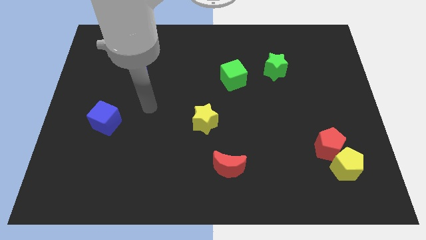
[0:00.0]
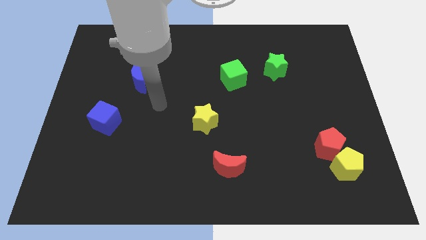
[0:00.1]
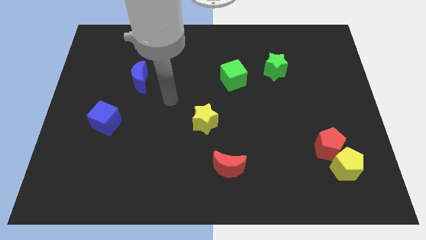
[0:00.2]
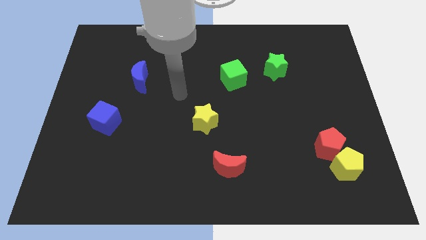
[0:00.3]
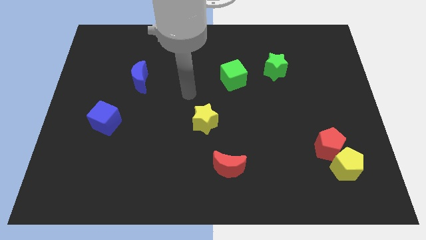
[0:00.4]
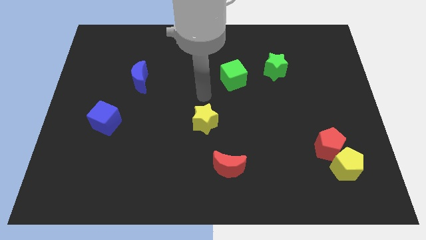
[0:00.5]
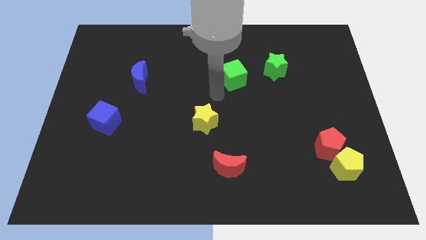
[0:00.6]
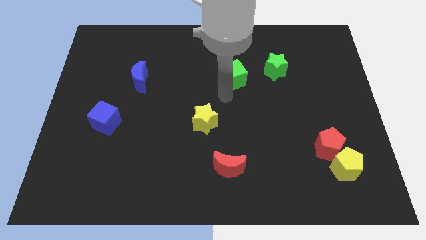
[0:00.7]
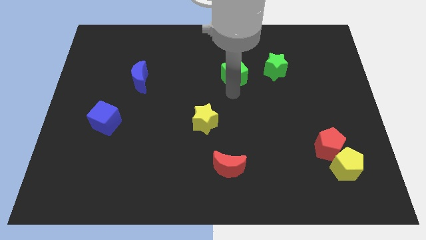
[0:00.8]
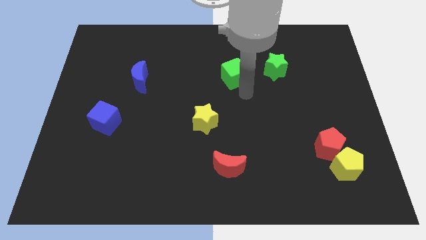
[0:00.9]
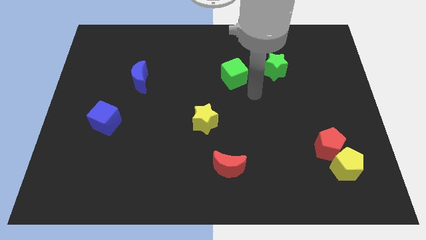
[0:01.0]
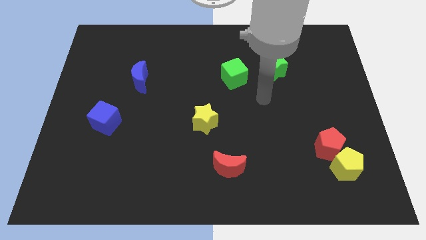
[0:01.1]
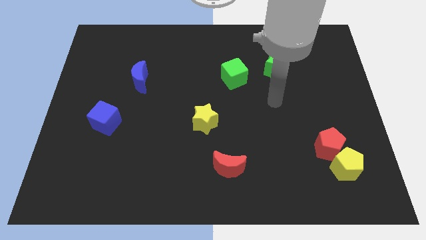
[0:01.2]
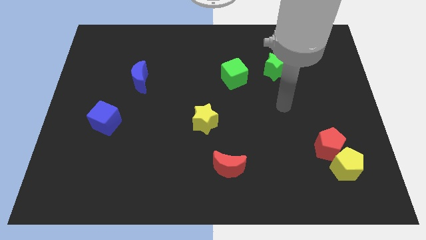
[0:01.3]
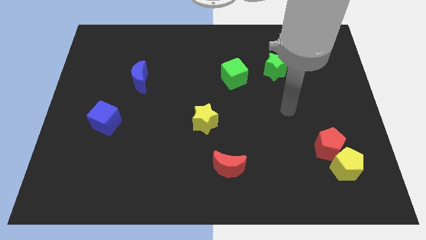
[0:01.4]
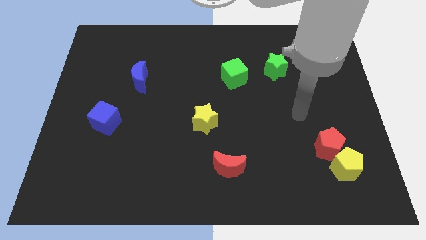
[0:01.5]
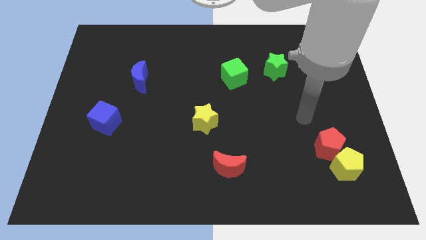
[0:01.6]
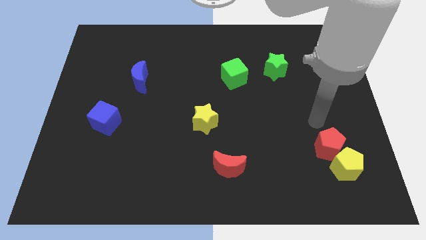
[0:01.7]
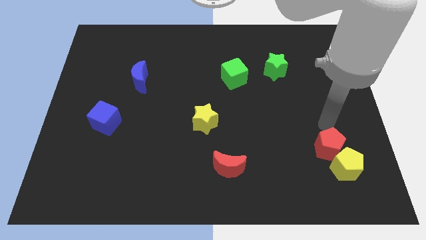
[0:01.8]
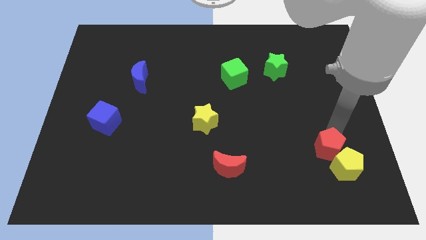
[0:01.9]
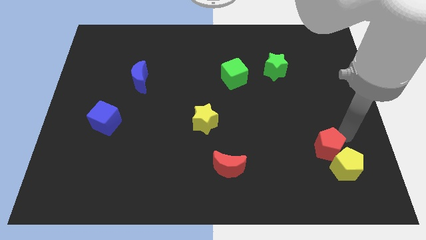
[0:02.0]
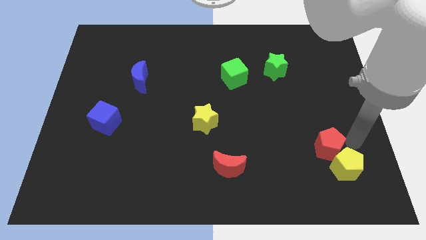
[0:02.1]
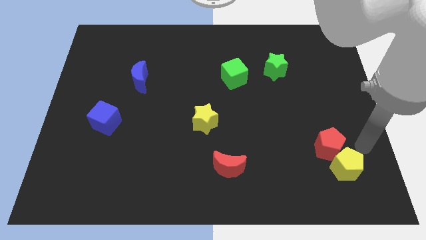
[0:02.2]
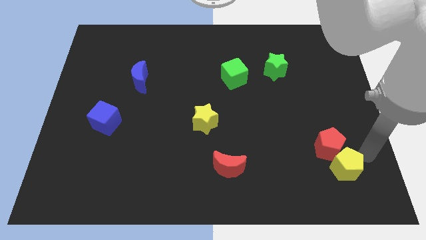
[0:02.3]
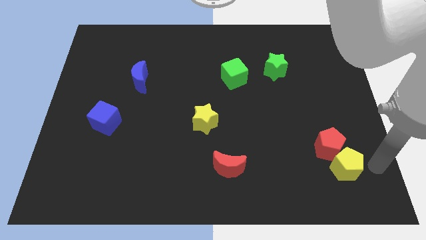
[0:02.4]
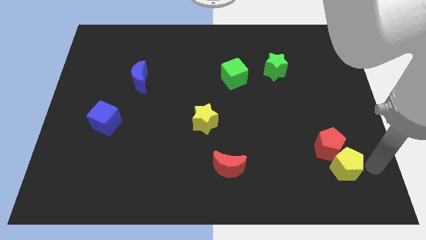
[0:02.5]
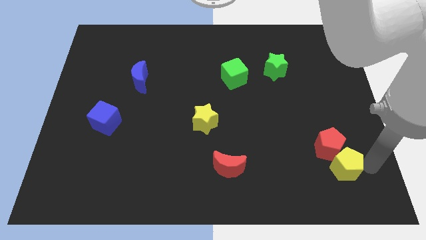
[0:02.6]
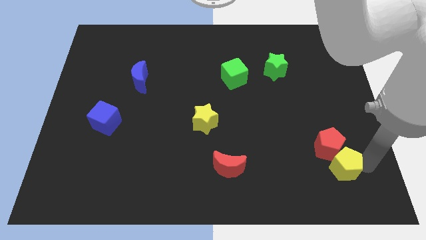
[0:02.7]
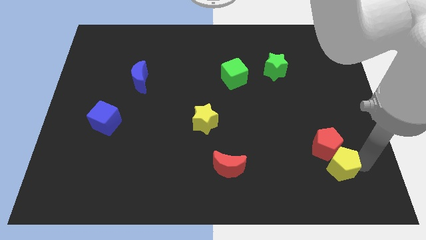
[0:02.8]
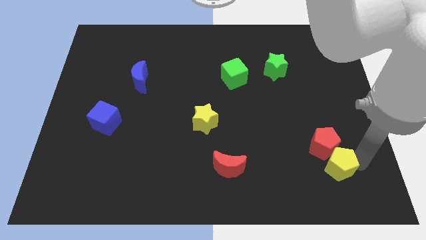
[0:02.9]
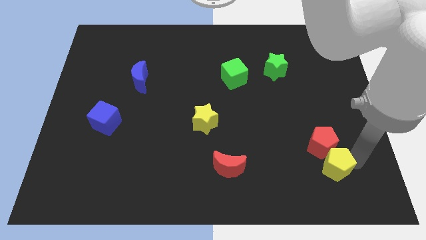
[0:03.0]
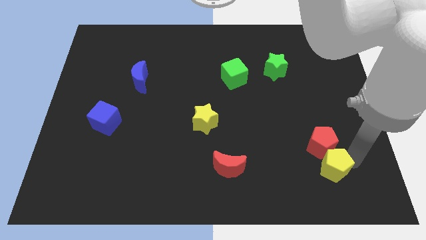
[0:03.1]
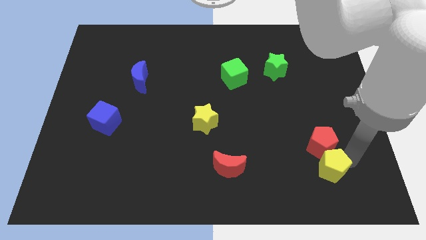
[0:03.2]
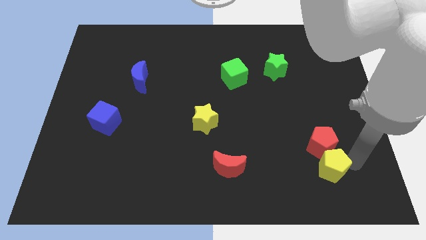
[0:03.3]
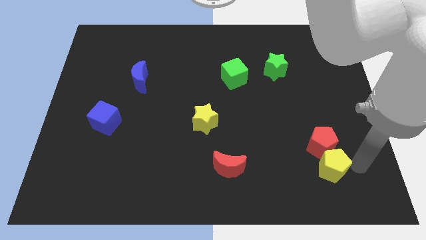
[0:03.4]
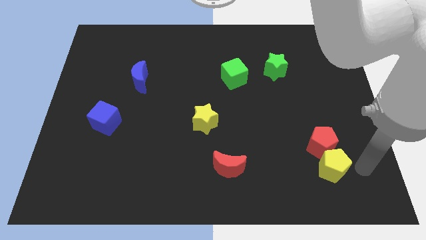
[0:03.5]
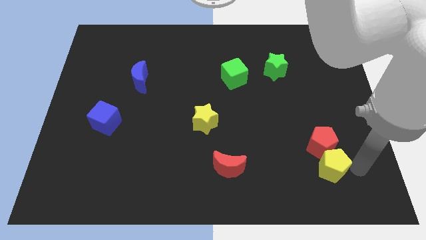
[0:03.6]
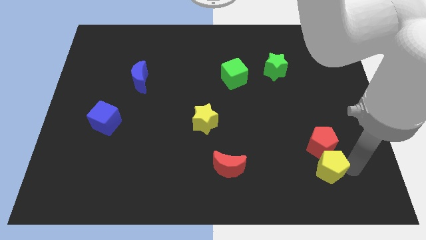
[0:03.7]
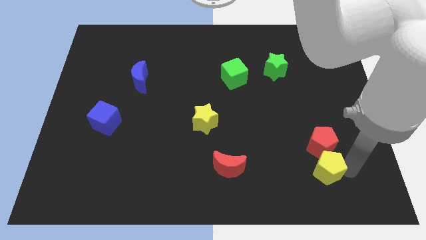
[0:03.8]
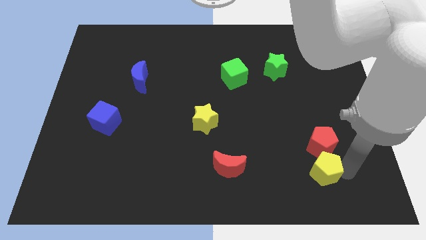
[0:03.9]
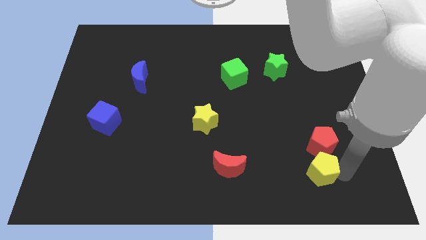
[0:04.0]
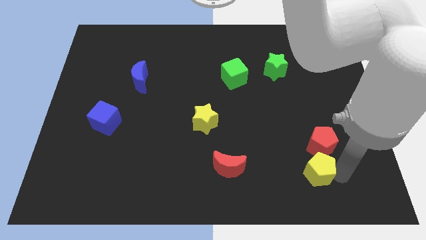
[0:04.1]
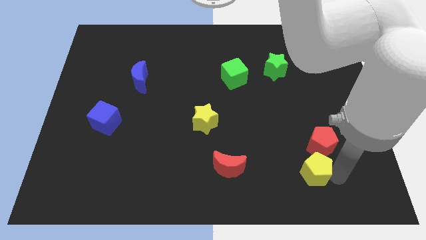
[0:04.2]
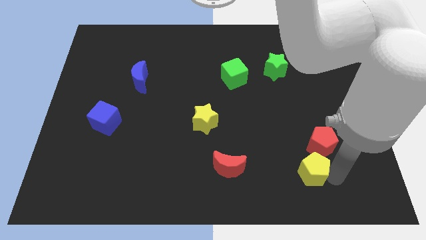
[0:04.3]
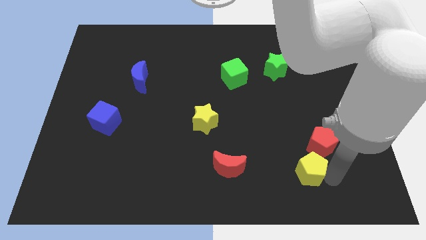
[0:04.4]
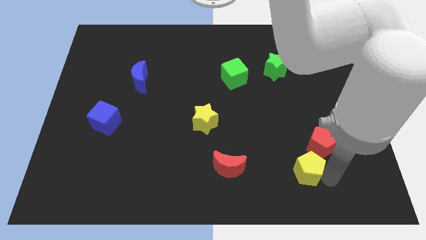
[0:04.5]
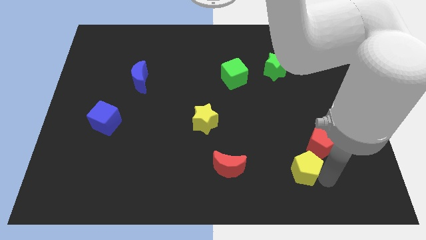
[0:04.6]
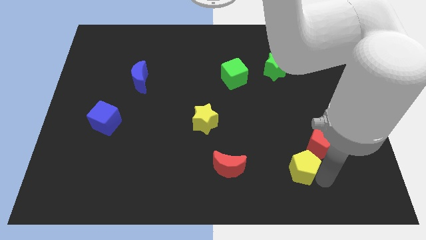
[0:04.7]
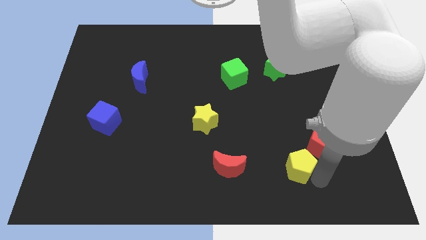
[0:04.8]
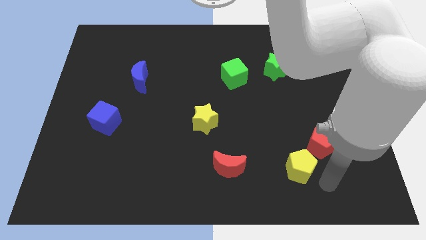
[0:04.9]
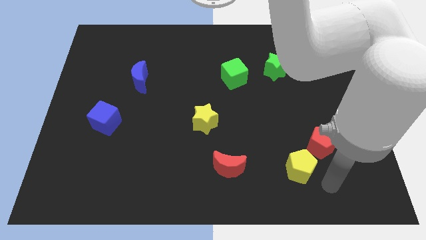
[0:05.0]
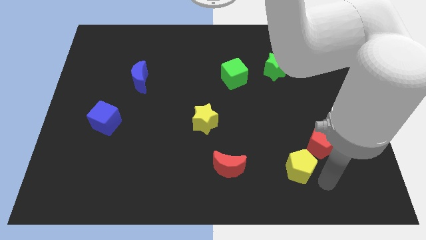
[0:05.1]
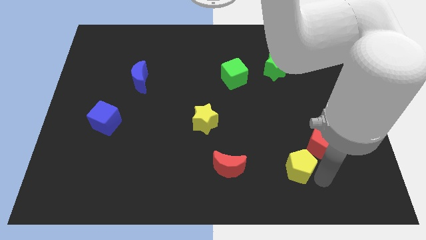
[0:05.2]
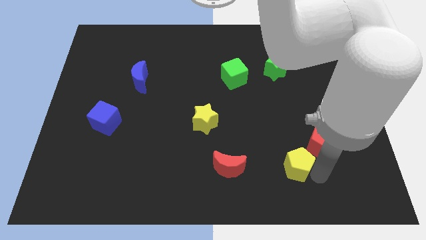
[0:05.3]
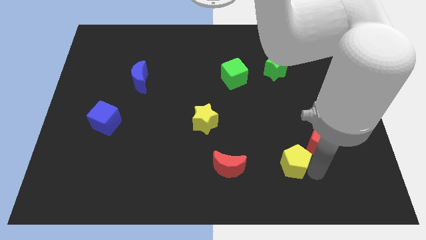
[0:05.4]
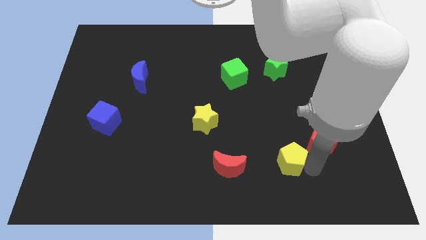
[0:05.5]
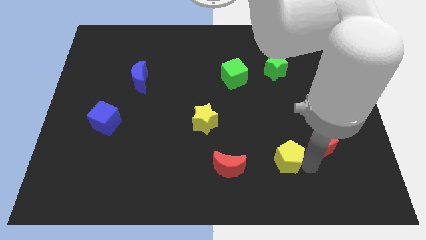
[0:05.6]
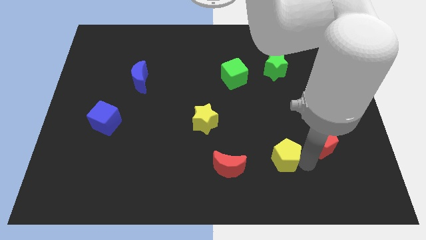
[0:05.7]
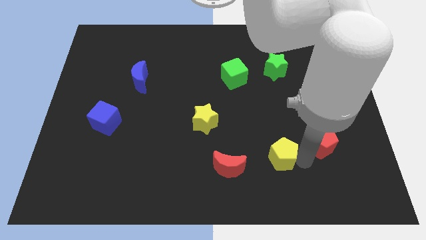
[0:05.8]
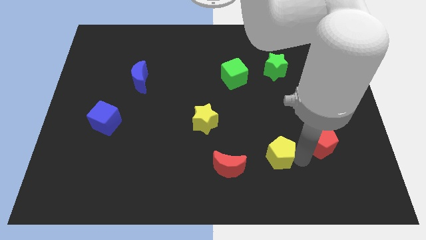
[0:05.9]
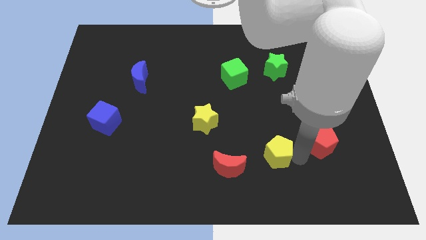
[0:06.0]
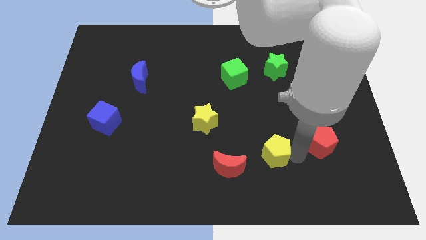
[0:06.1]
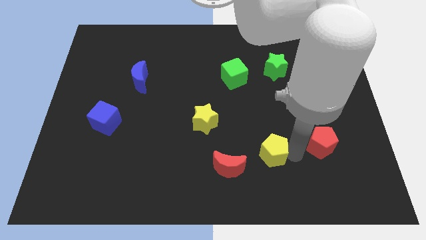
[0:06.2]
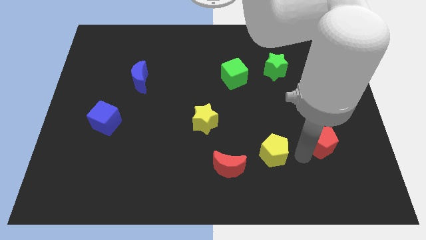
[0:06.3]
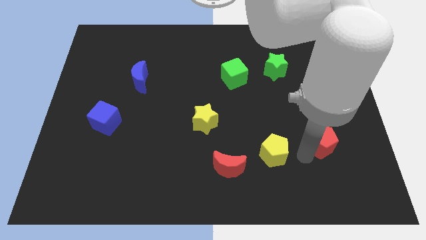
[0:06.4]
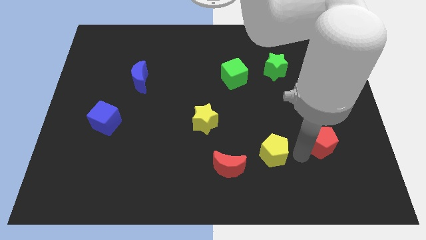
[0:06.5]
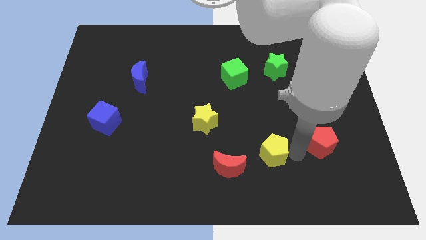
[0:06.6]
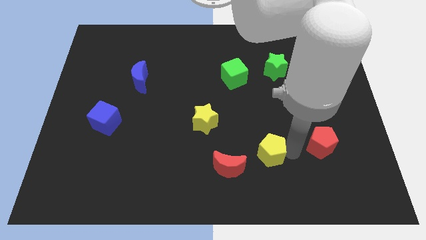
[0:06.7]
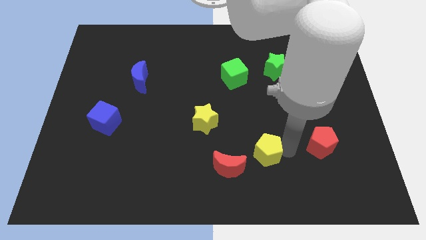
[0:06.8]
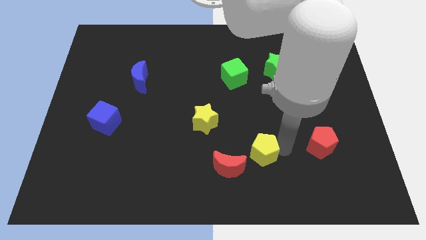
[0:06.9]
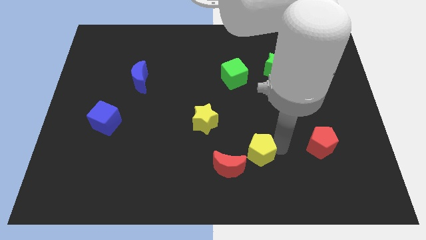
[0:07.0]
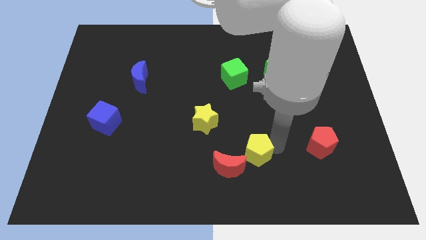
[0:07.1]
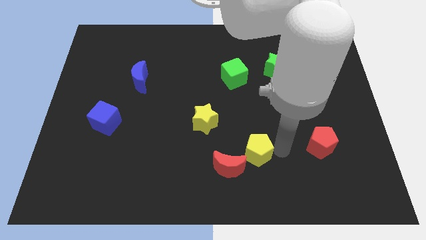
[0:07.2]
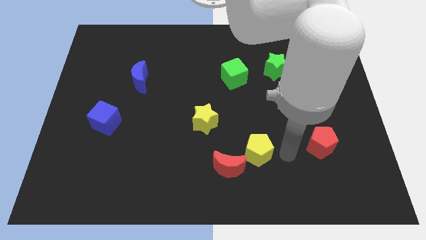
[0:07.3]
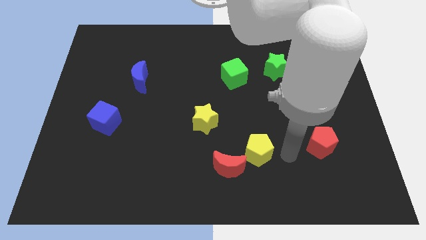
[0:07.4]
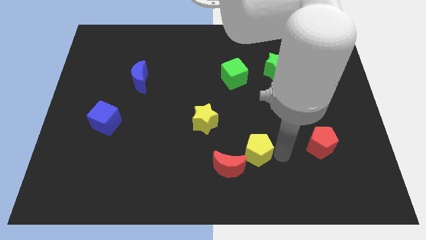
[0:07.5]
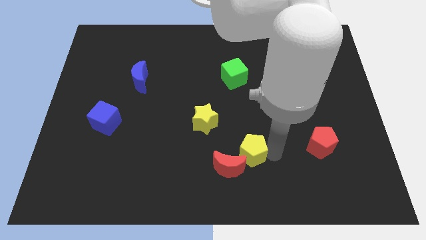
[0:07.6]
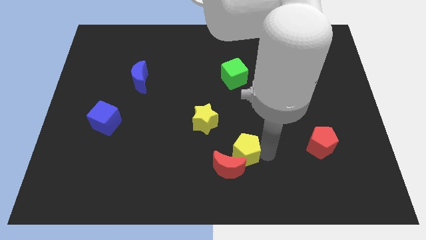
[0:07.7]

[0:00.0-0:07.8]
move the yellow pentagon to the left
